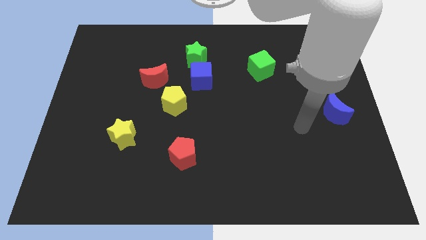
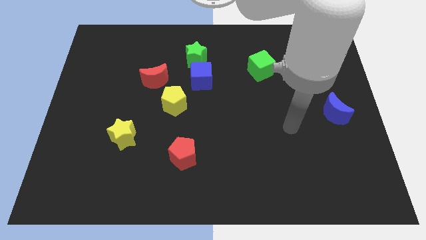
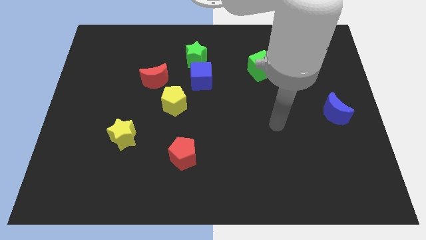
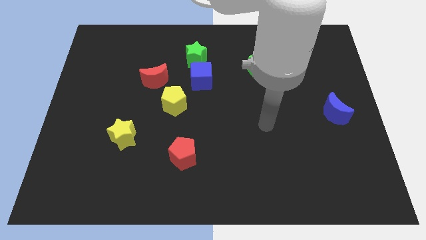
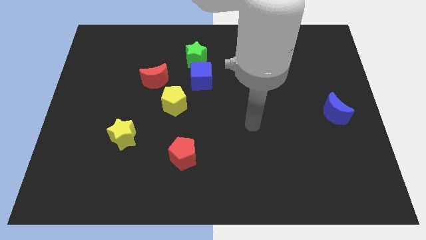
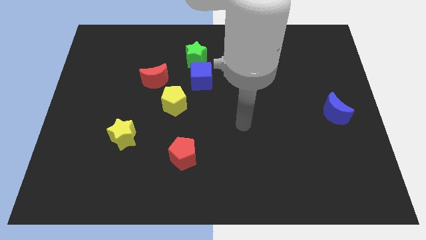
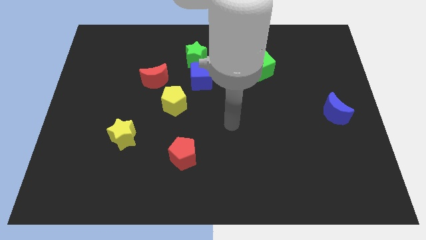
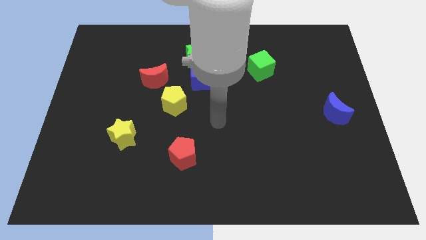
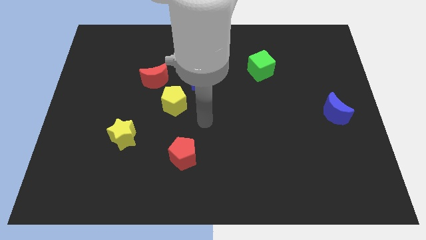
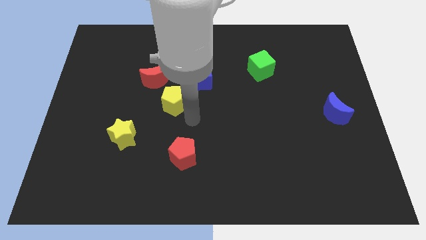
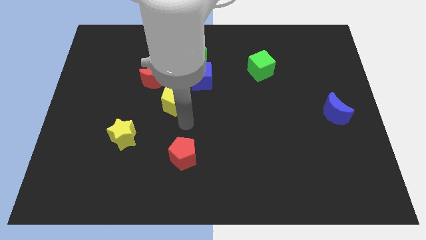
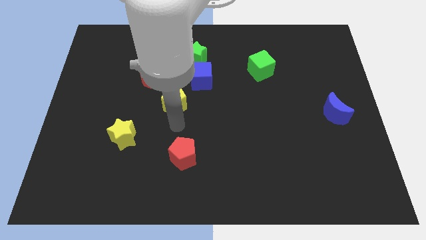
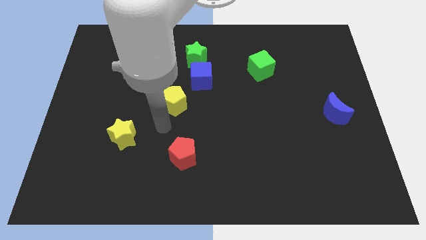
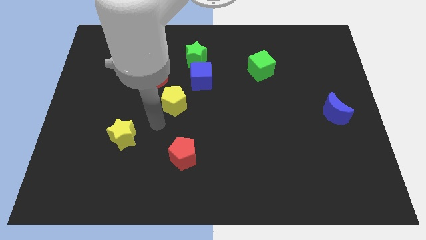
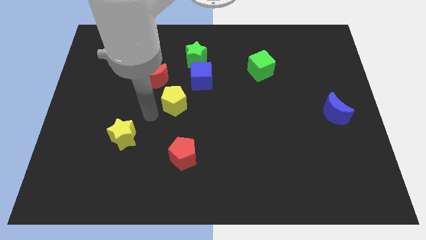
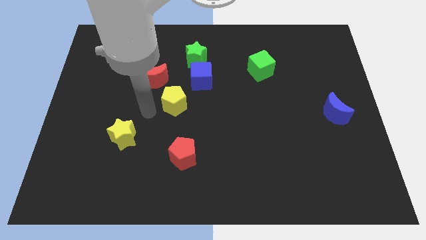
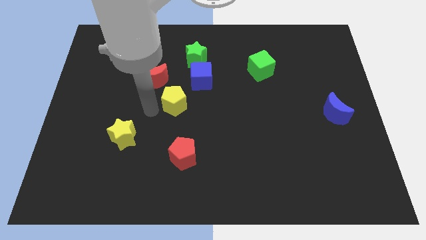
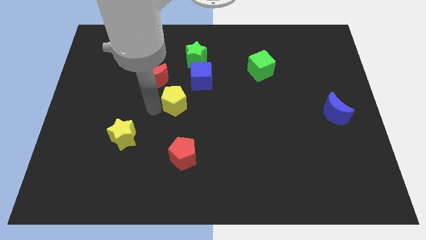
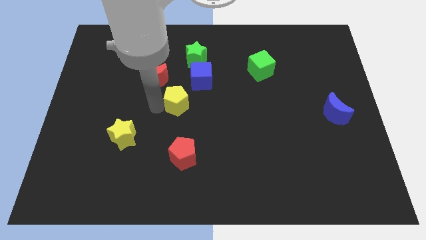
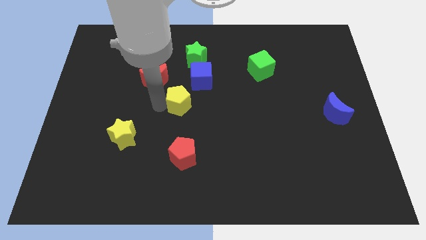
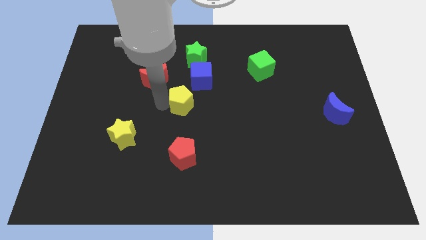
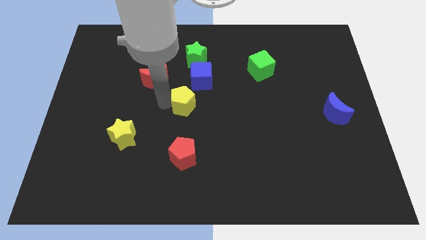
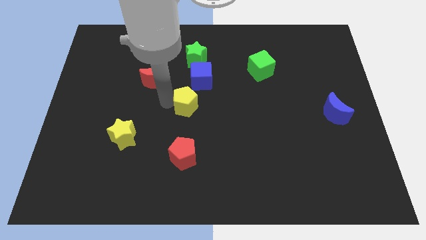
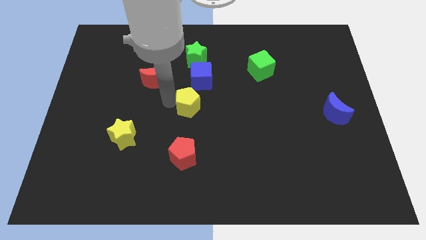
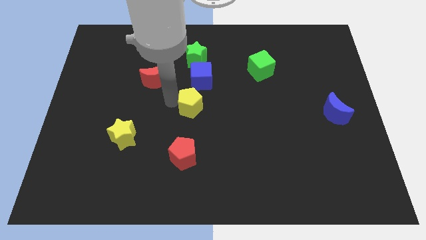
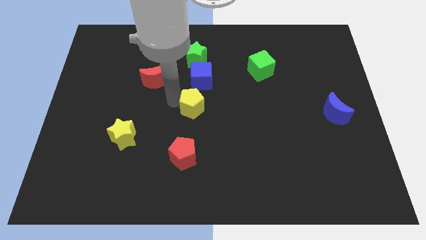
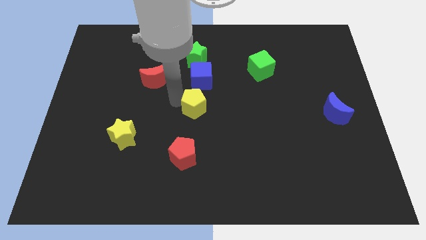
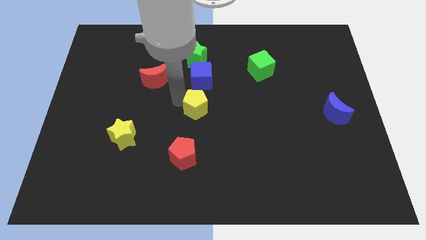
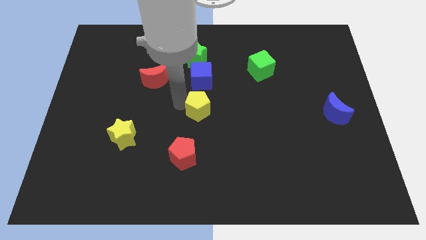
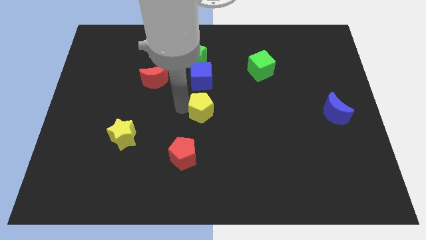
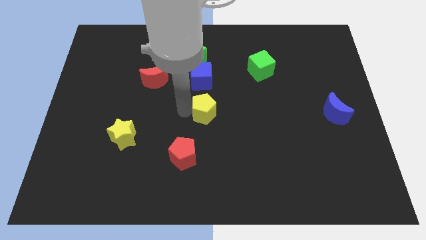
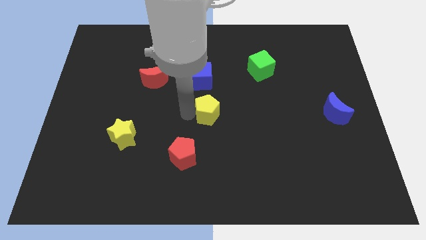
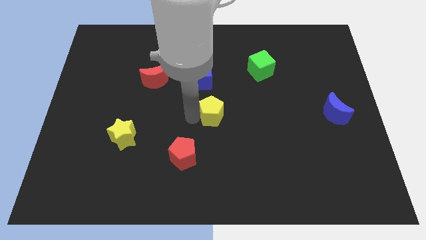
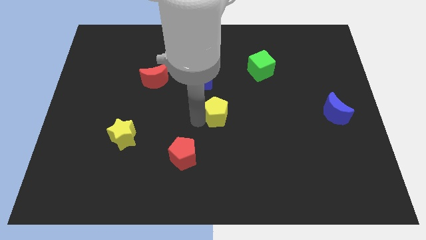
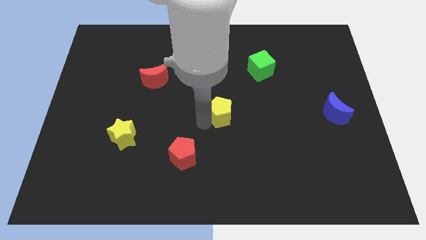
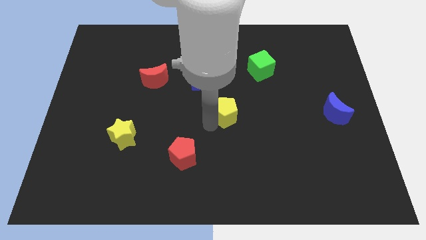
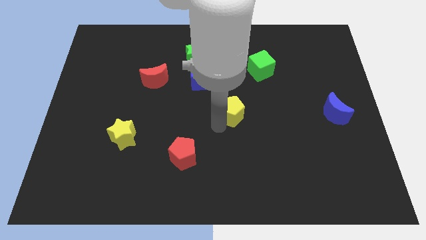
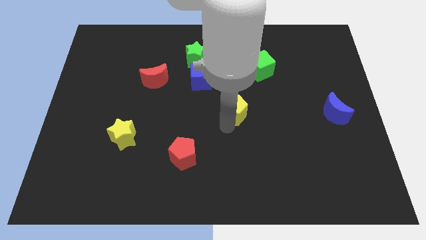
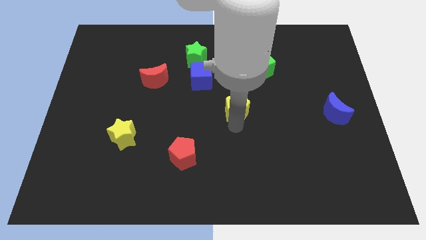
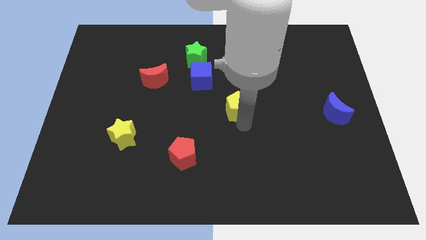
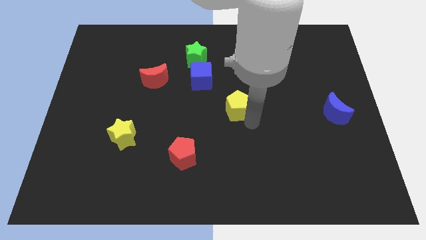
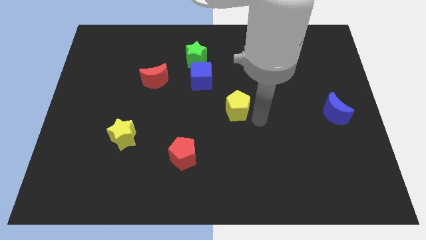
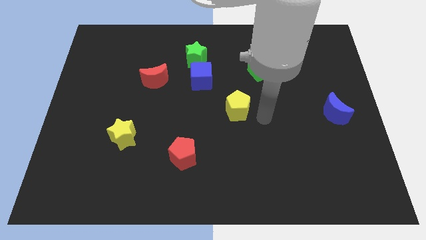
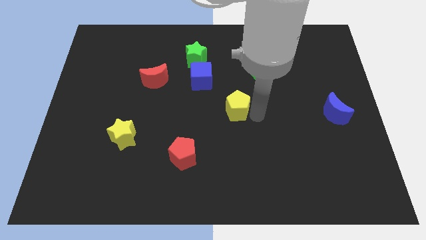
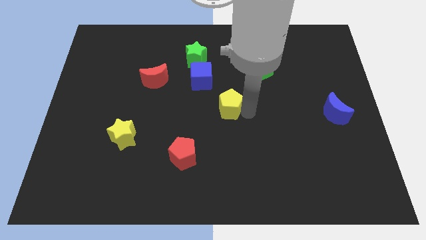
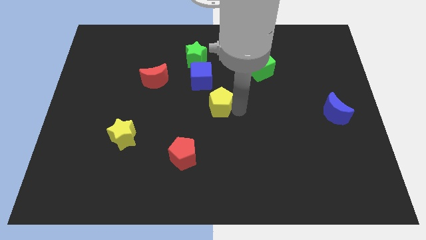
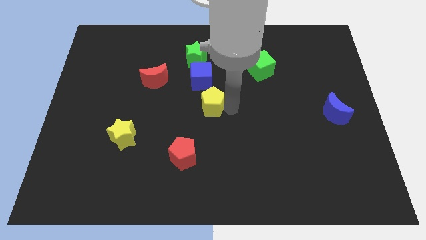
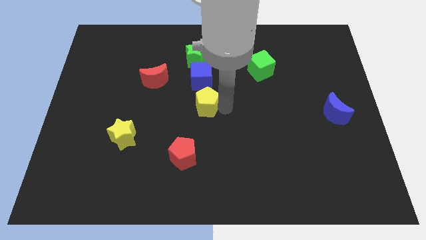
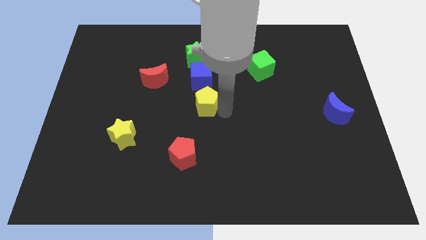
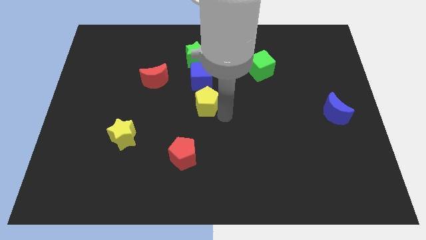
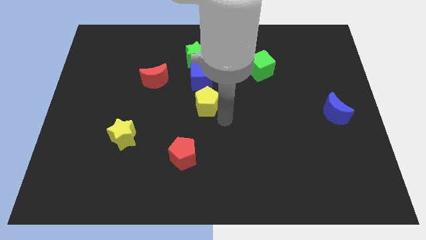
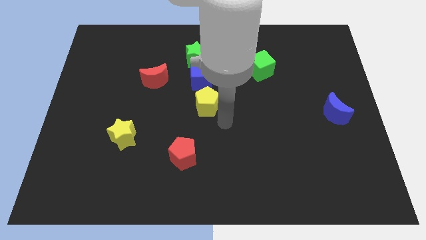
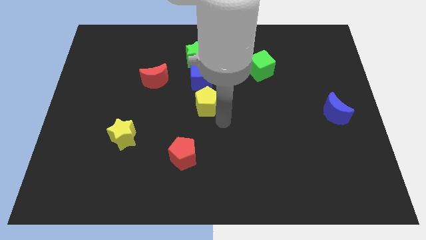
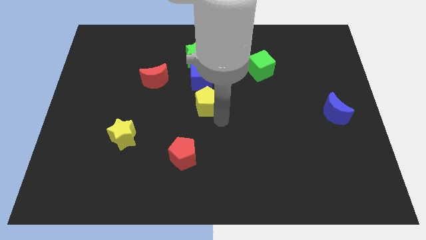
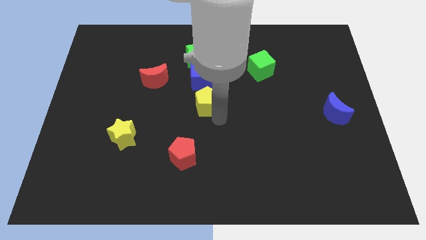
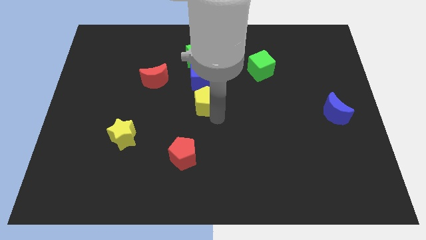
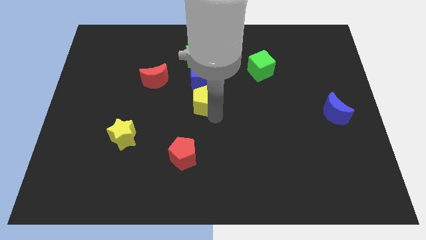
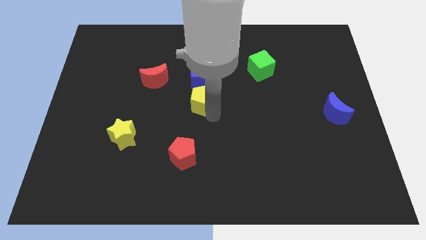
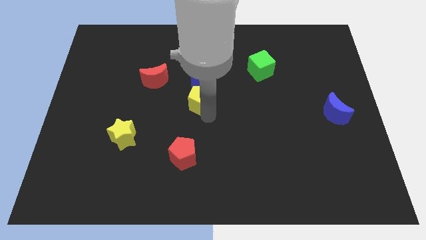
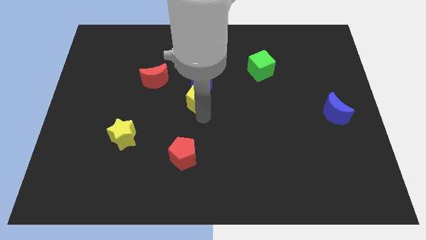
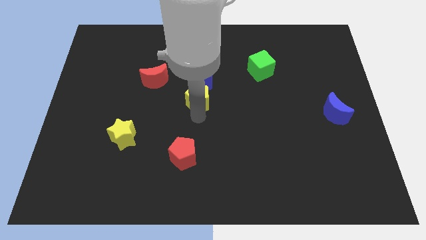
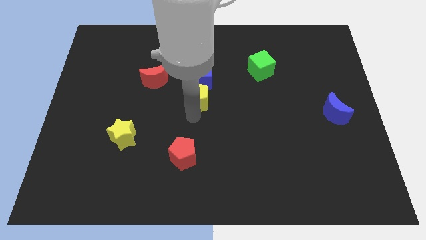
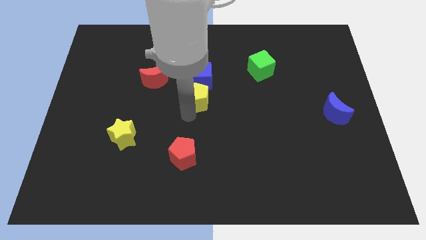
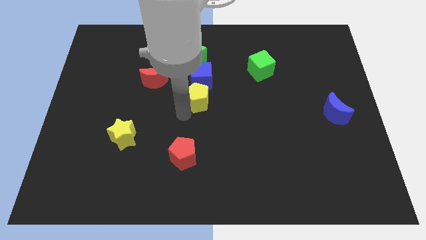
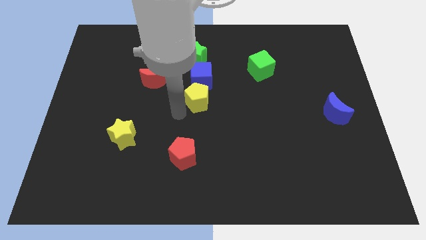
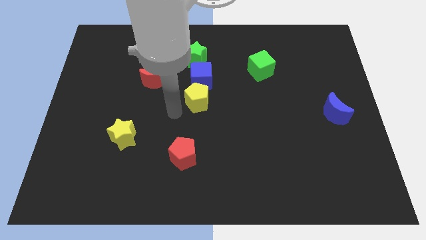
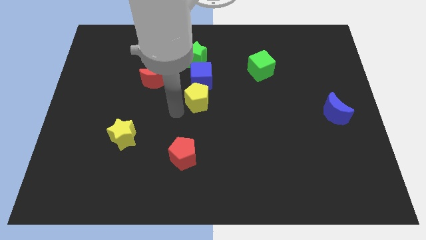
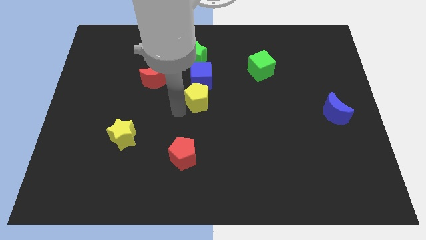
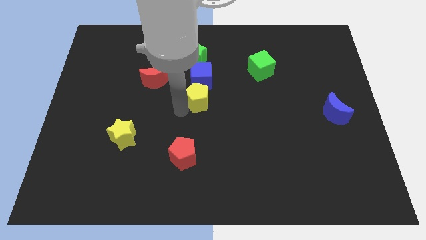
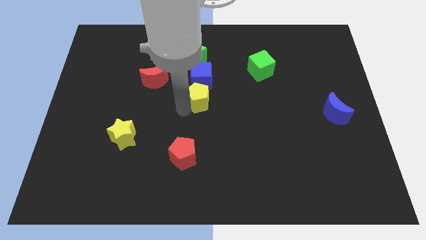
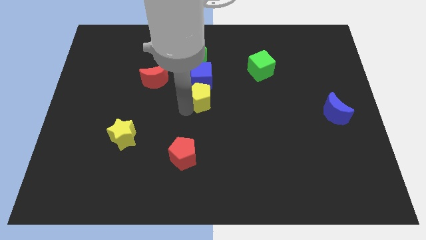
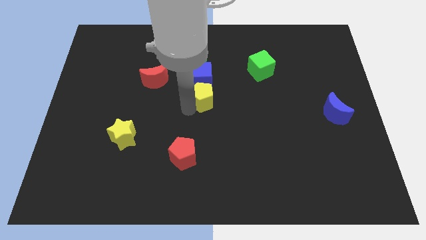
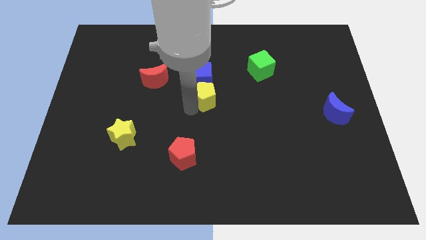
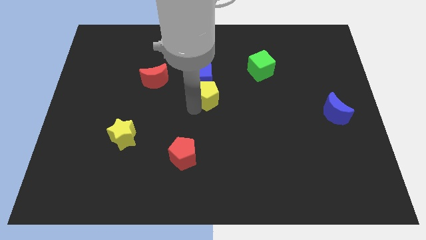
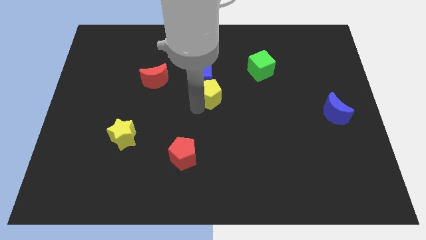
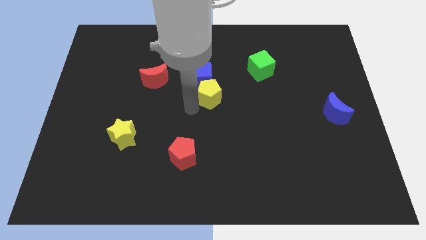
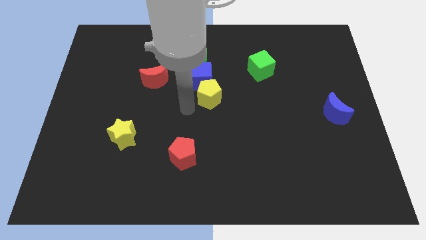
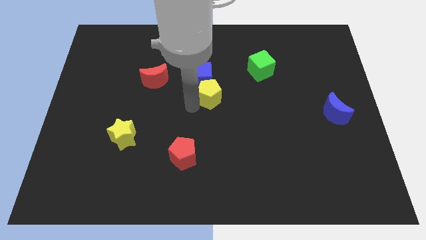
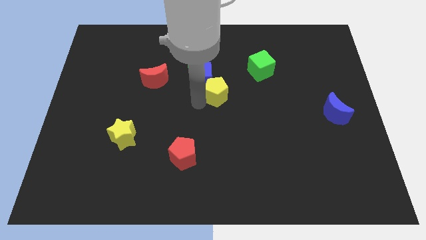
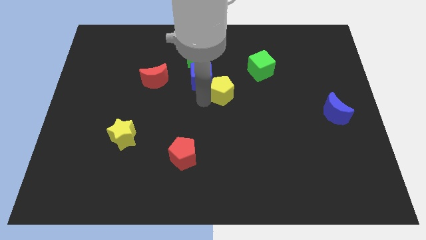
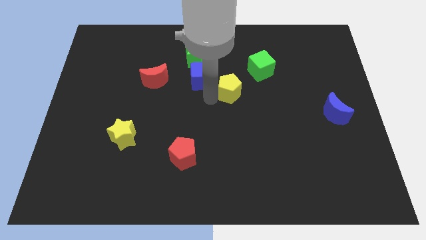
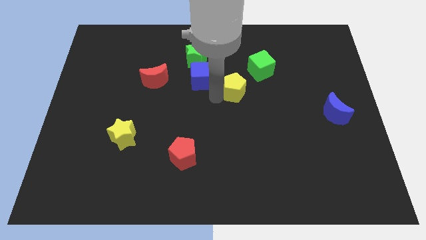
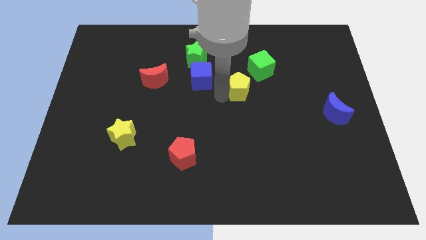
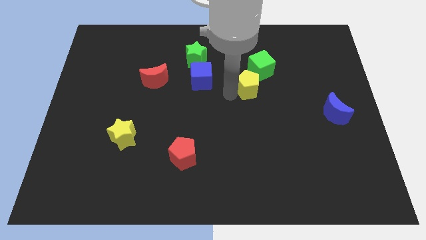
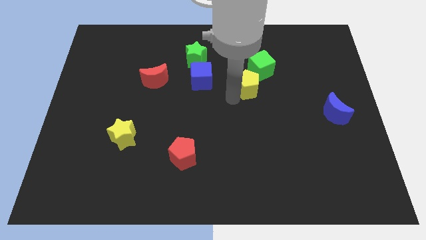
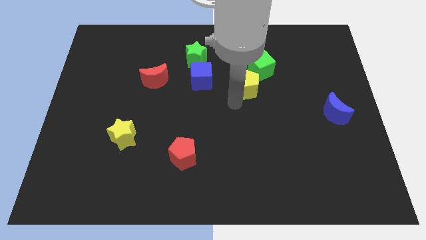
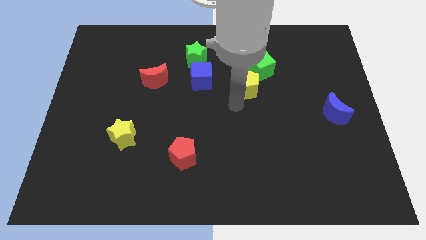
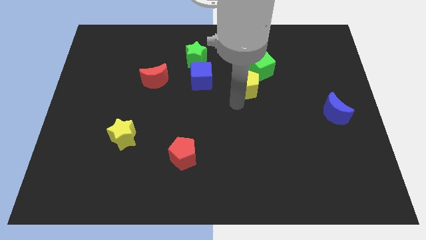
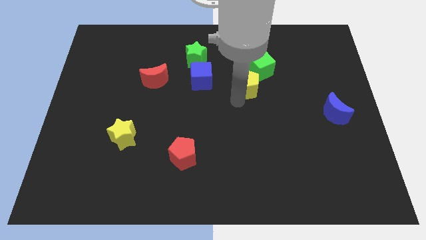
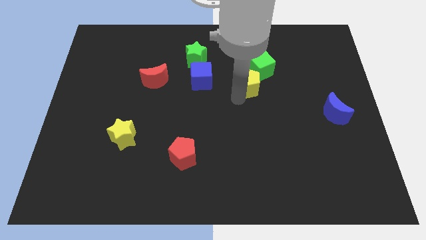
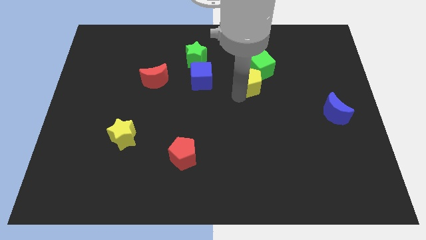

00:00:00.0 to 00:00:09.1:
push the yellow pentagon next to the green cube
